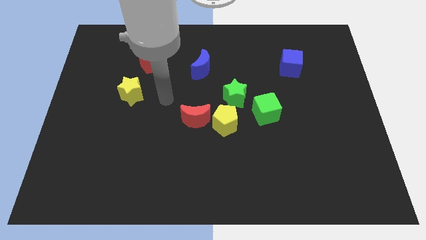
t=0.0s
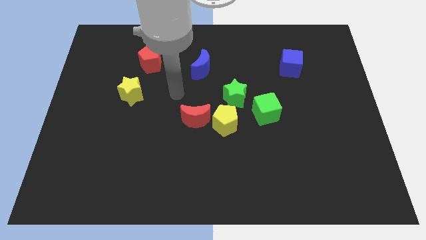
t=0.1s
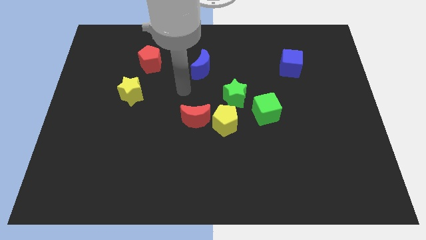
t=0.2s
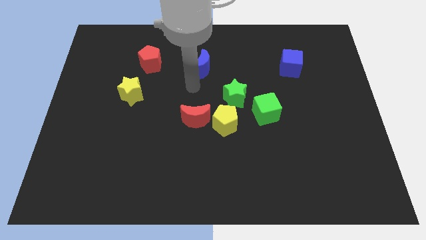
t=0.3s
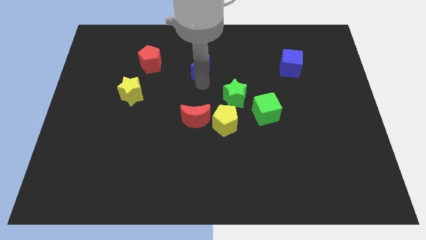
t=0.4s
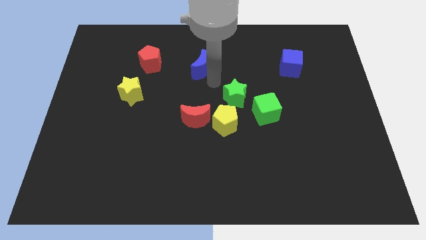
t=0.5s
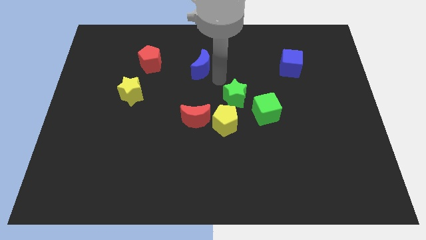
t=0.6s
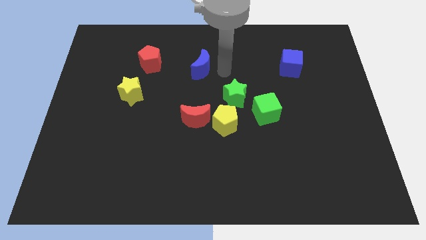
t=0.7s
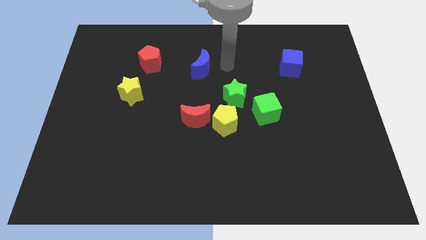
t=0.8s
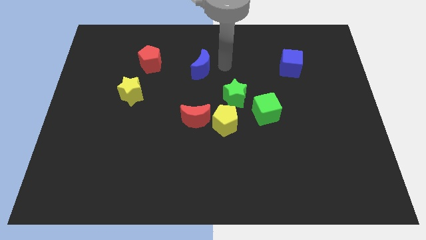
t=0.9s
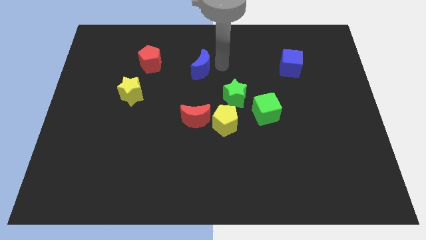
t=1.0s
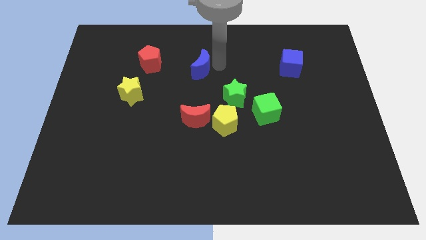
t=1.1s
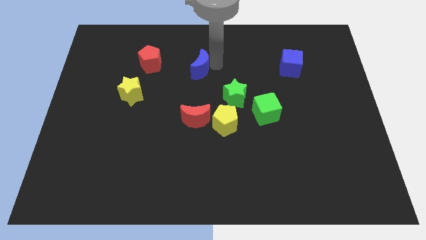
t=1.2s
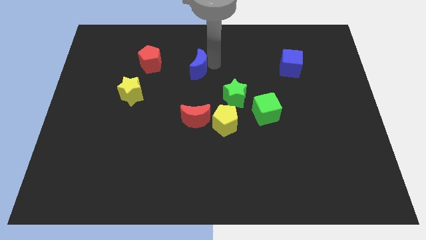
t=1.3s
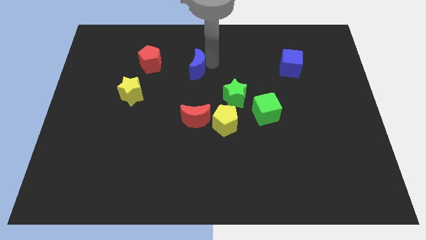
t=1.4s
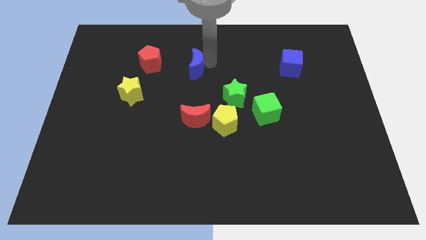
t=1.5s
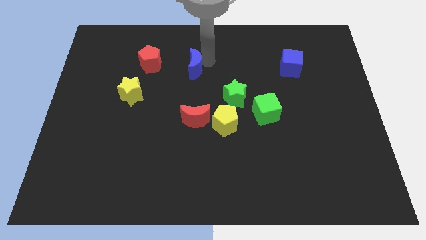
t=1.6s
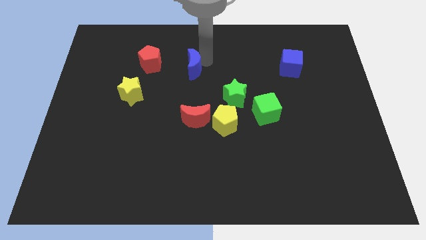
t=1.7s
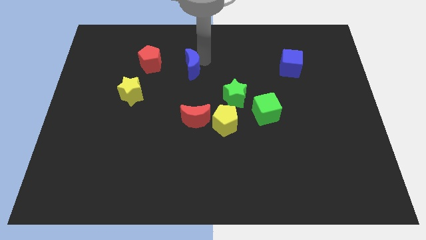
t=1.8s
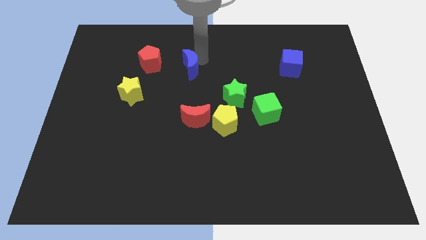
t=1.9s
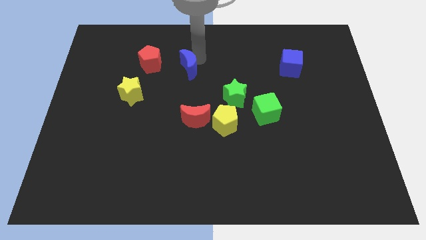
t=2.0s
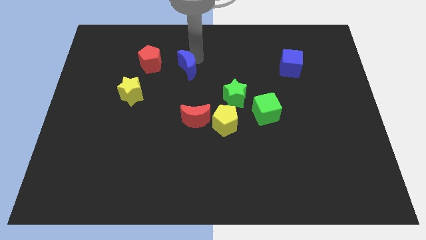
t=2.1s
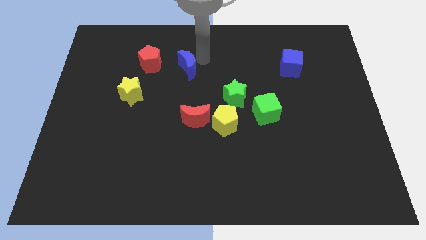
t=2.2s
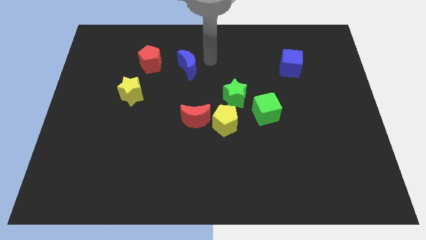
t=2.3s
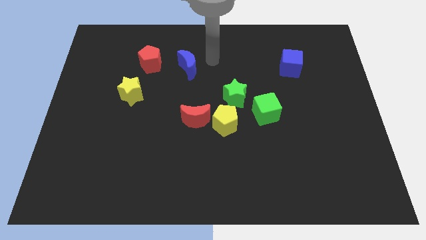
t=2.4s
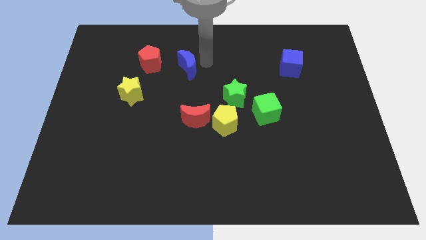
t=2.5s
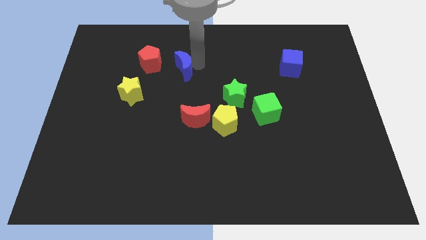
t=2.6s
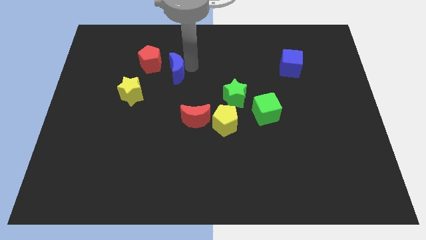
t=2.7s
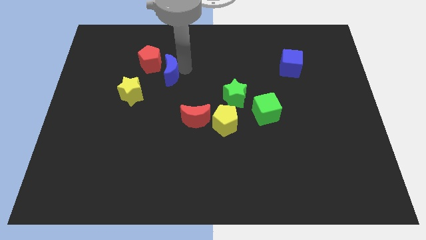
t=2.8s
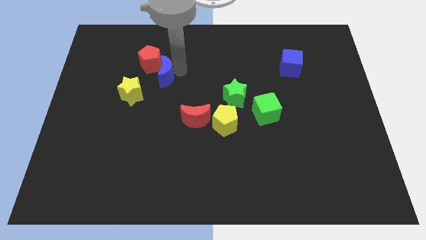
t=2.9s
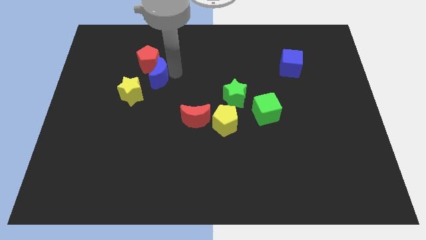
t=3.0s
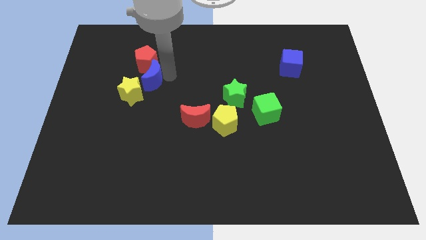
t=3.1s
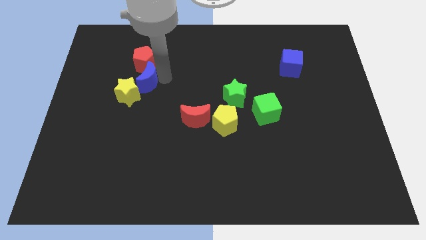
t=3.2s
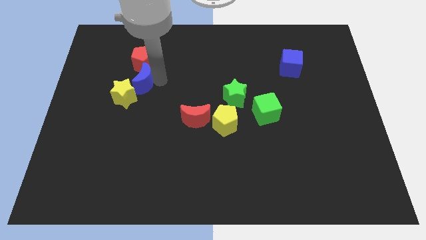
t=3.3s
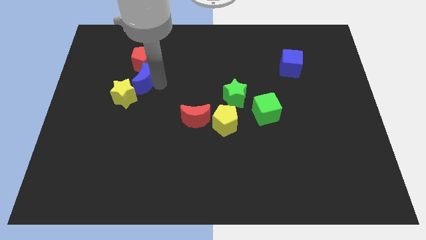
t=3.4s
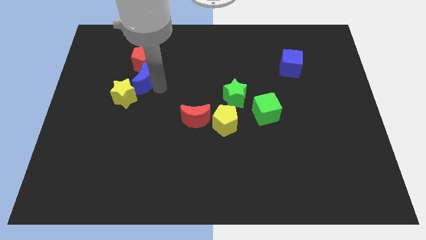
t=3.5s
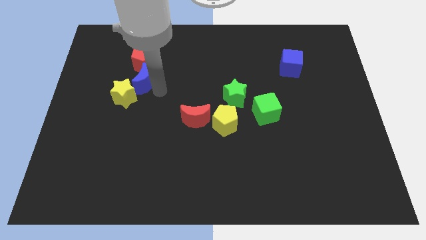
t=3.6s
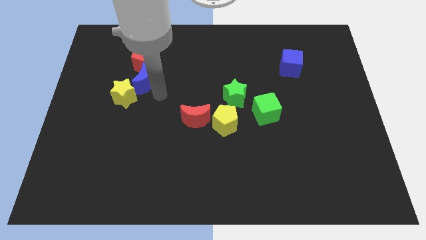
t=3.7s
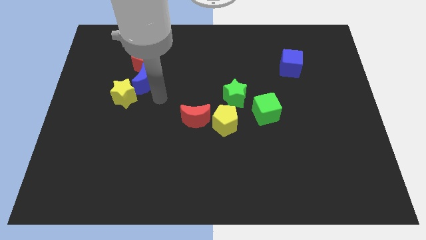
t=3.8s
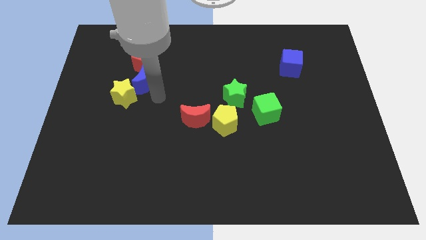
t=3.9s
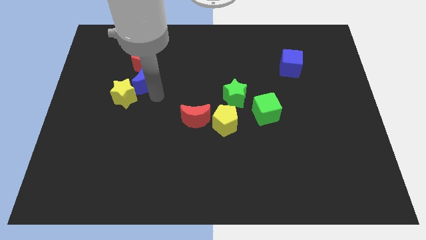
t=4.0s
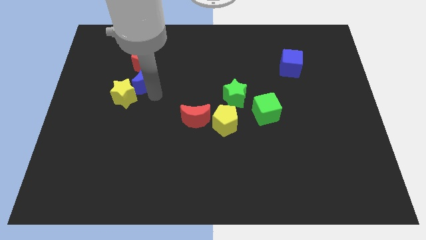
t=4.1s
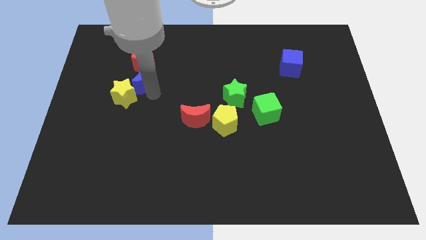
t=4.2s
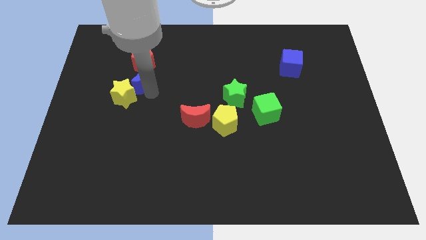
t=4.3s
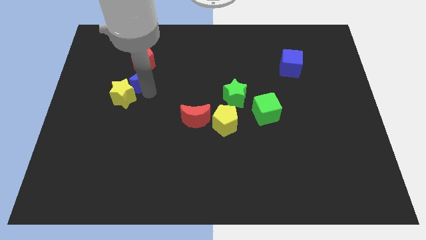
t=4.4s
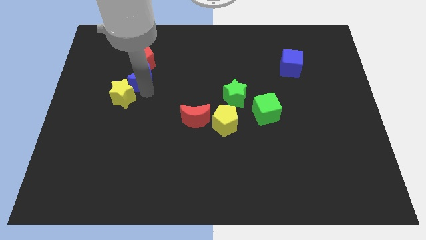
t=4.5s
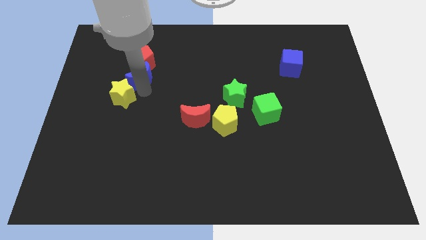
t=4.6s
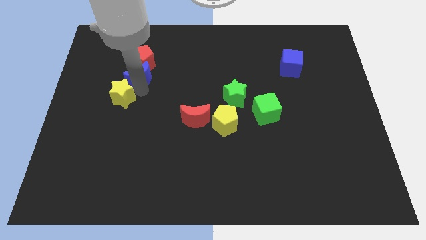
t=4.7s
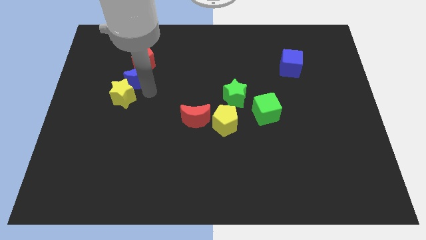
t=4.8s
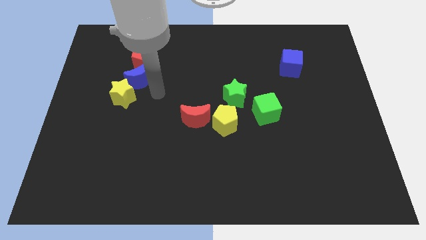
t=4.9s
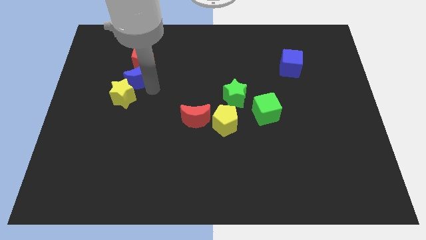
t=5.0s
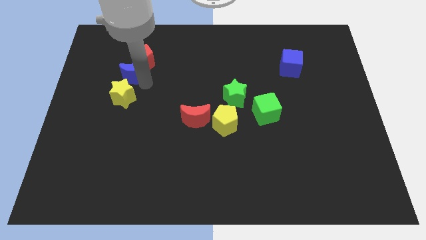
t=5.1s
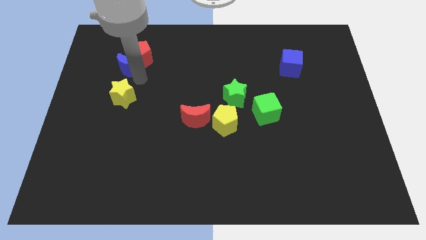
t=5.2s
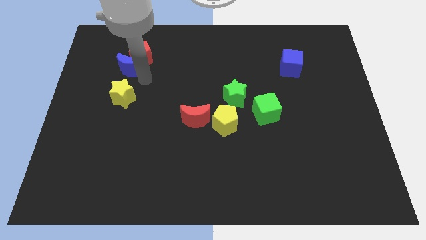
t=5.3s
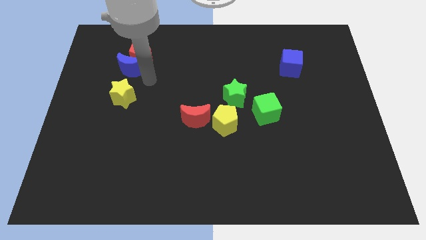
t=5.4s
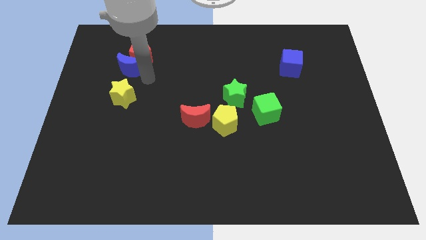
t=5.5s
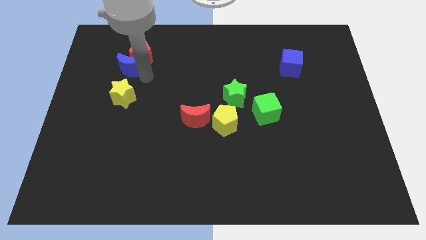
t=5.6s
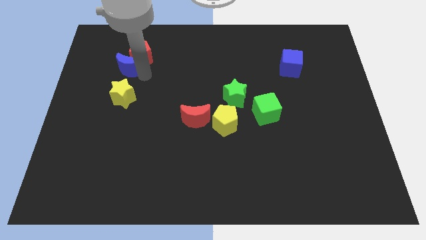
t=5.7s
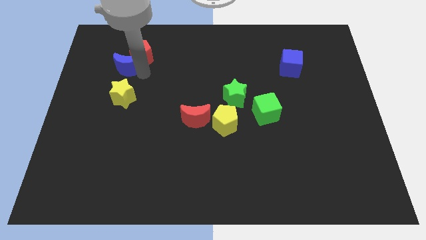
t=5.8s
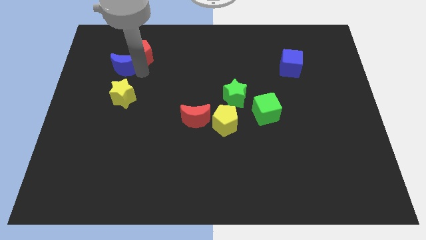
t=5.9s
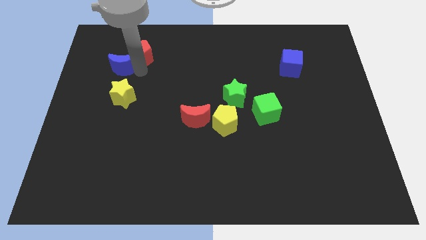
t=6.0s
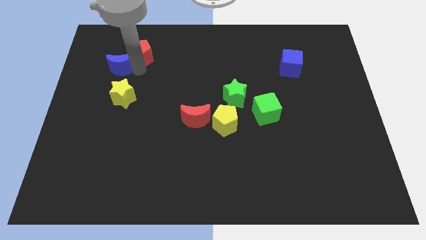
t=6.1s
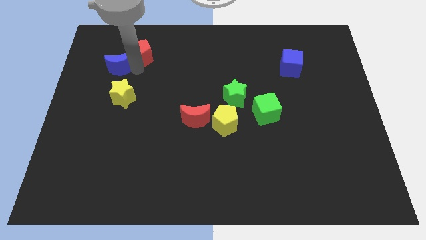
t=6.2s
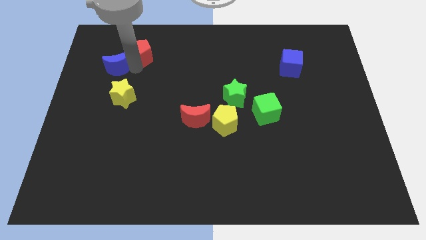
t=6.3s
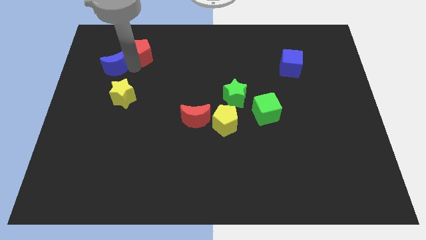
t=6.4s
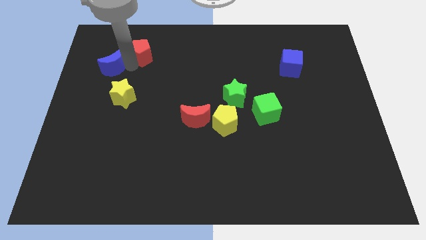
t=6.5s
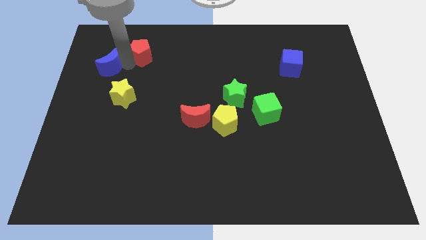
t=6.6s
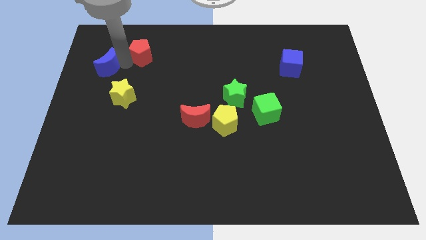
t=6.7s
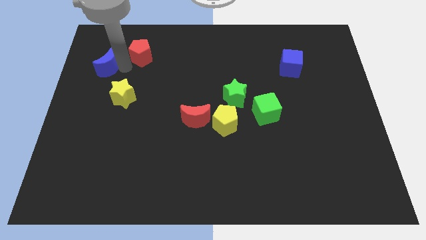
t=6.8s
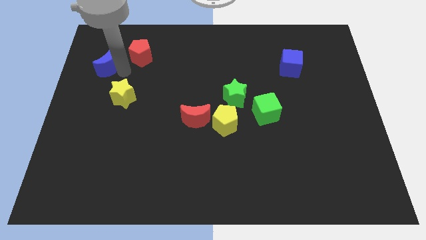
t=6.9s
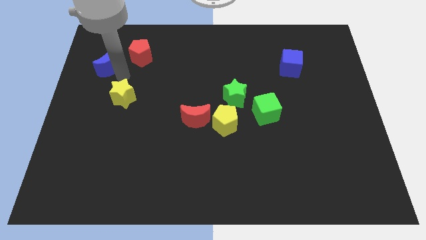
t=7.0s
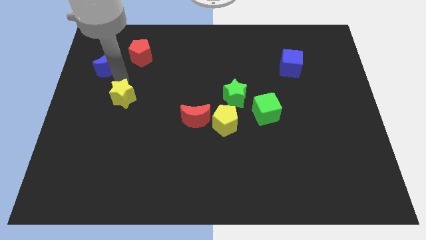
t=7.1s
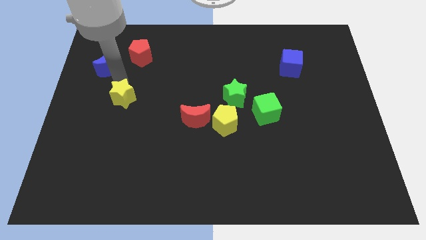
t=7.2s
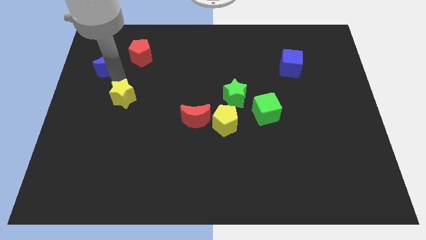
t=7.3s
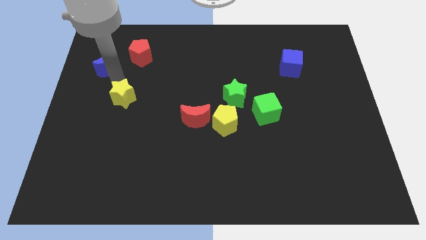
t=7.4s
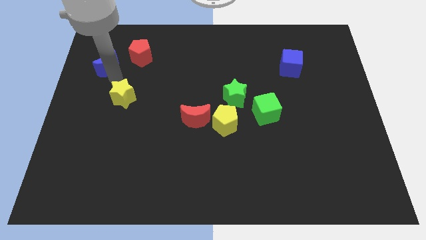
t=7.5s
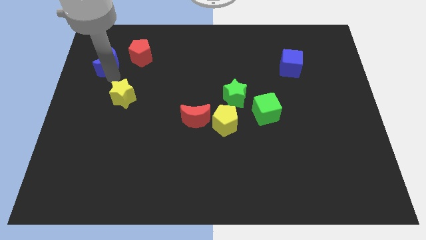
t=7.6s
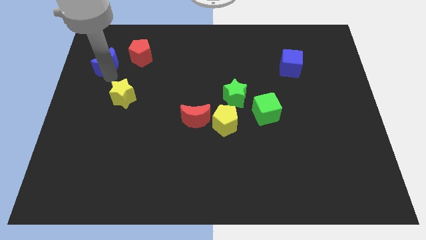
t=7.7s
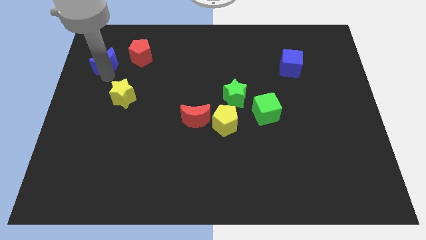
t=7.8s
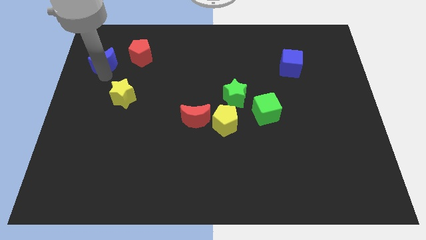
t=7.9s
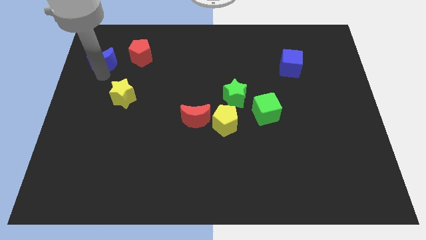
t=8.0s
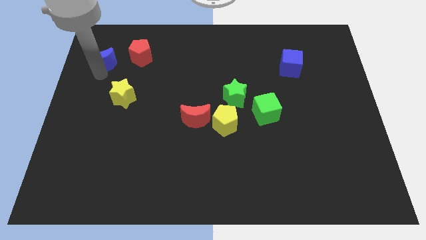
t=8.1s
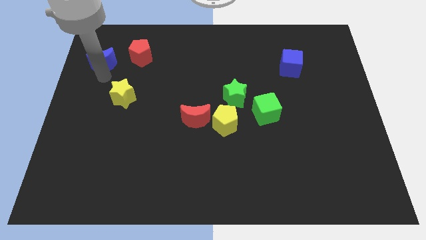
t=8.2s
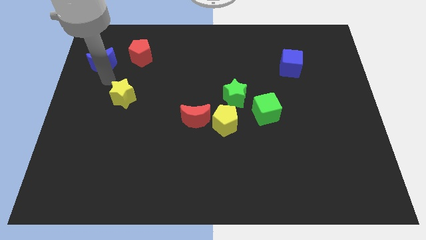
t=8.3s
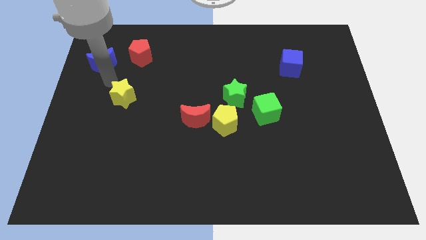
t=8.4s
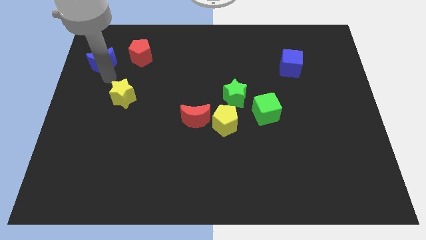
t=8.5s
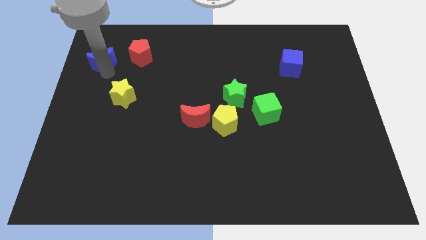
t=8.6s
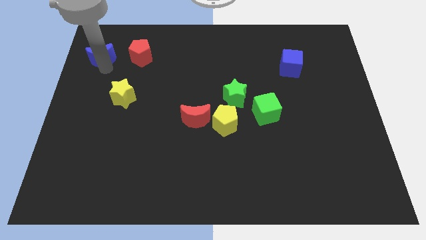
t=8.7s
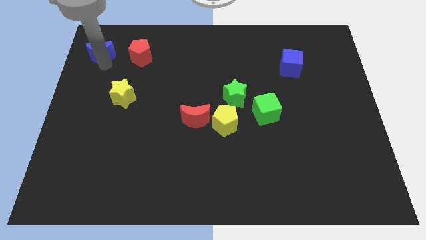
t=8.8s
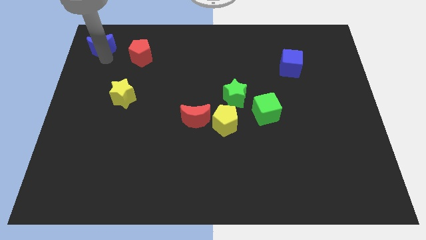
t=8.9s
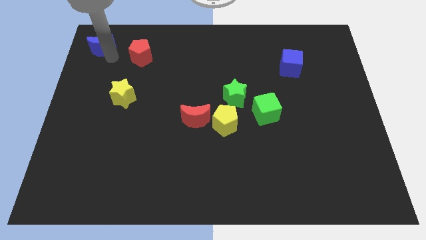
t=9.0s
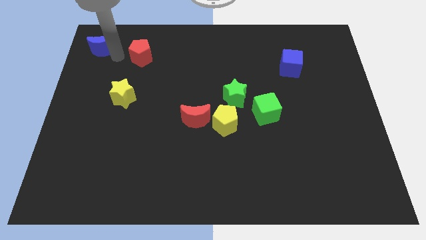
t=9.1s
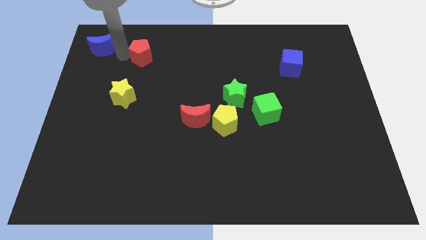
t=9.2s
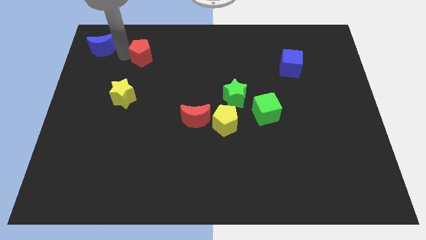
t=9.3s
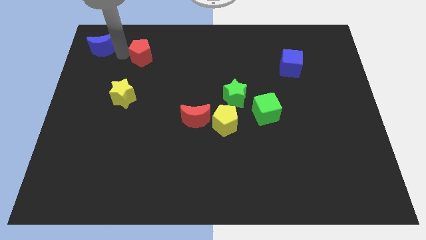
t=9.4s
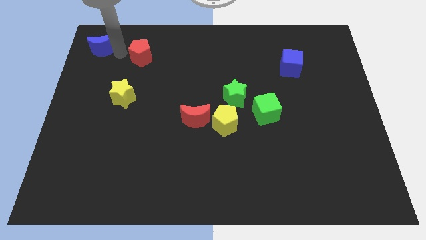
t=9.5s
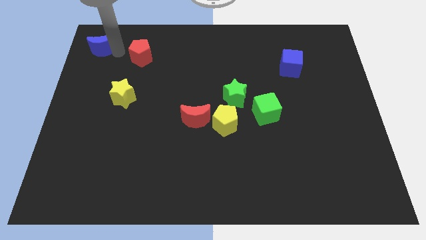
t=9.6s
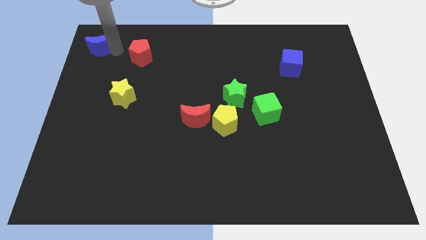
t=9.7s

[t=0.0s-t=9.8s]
put the blue moon to the top left corner
